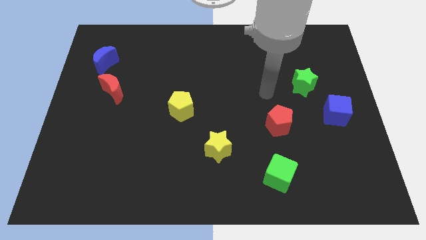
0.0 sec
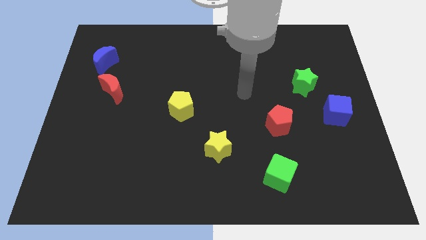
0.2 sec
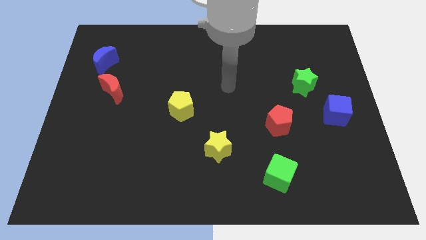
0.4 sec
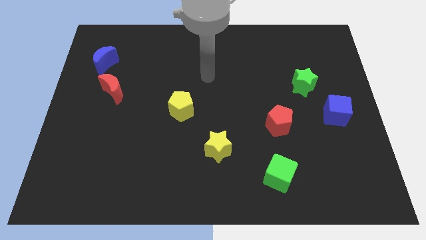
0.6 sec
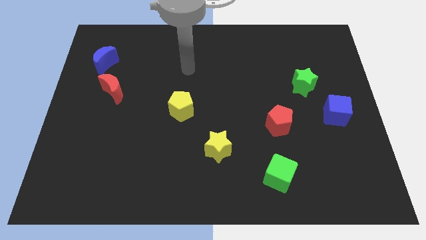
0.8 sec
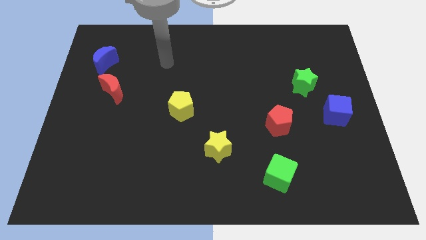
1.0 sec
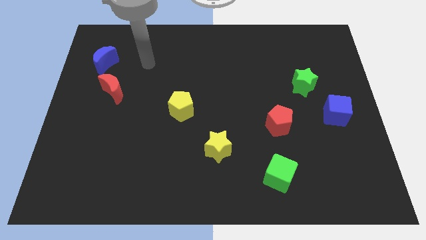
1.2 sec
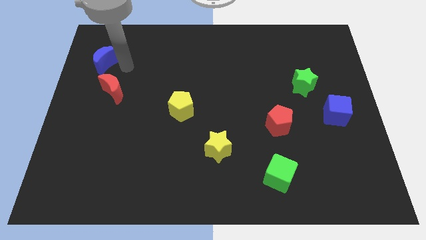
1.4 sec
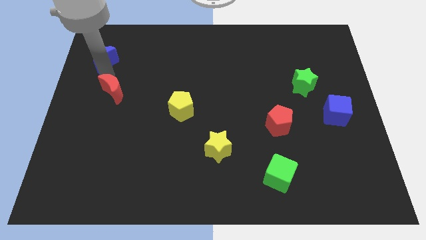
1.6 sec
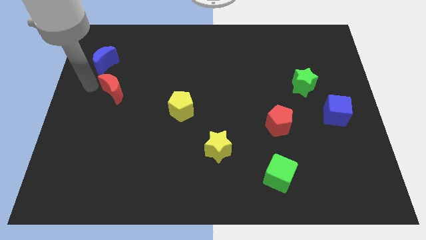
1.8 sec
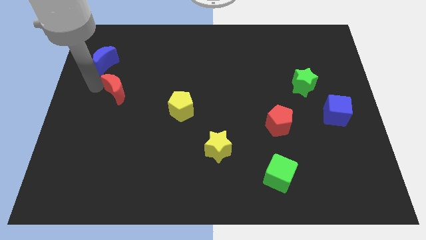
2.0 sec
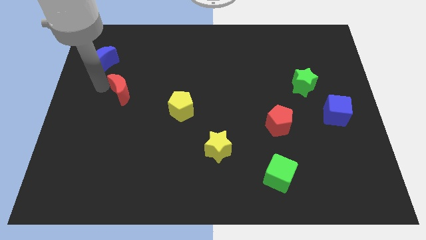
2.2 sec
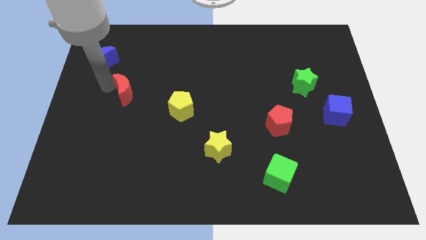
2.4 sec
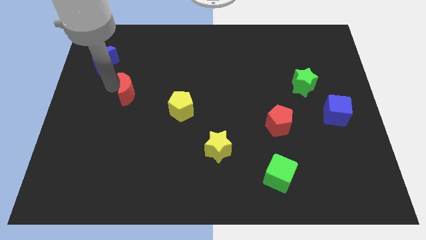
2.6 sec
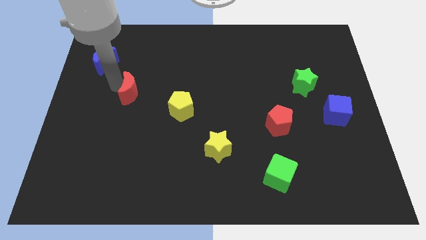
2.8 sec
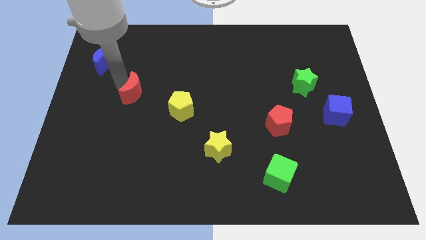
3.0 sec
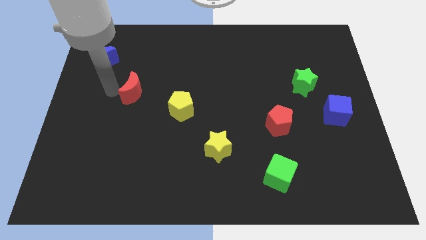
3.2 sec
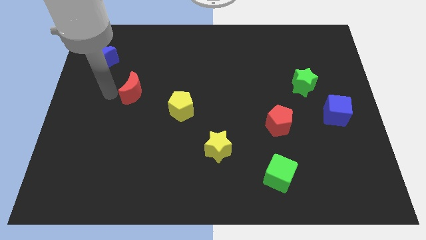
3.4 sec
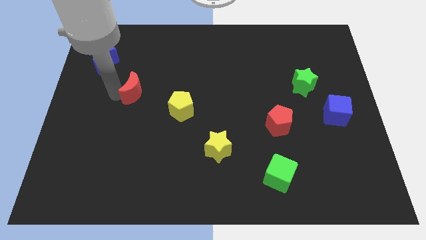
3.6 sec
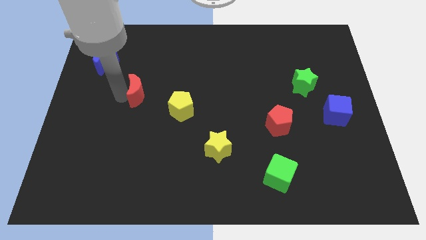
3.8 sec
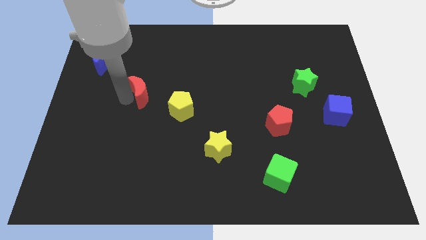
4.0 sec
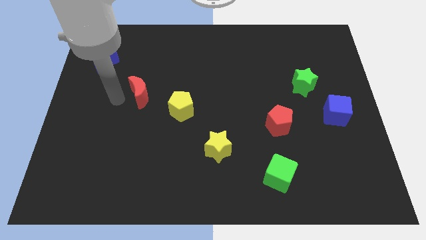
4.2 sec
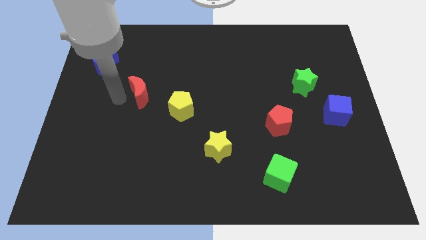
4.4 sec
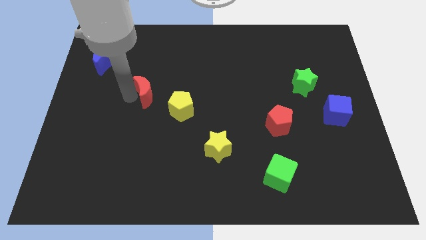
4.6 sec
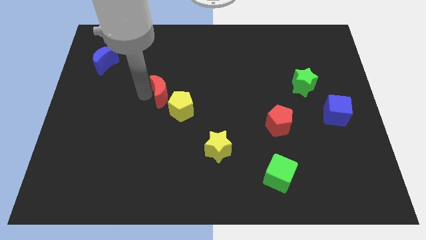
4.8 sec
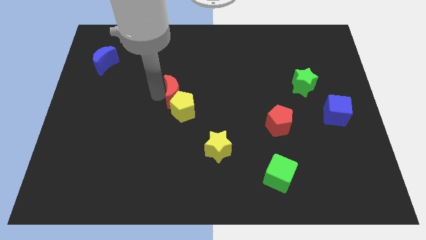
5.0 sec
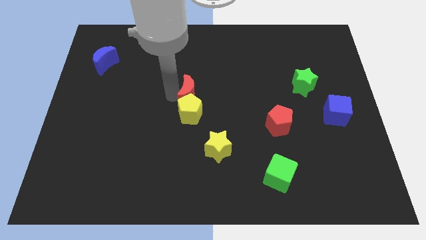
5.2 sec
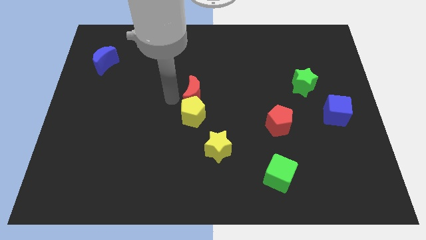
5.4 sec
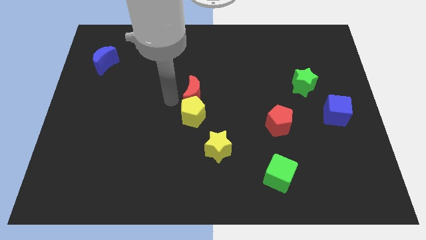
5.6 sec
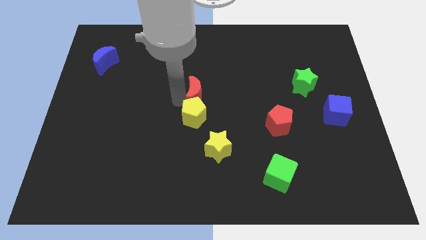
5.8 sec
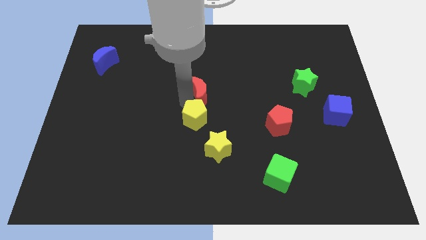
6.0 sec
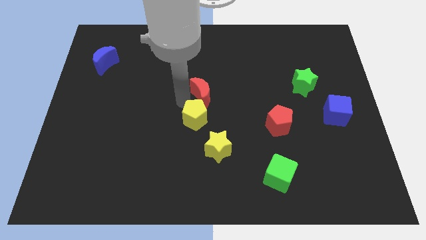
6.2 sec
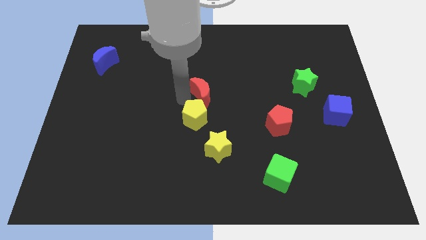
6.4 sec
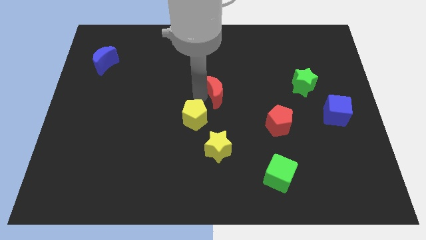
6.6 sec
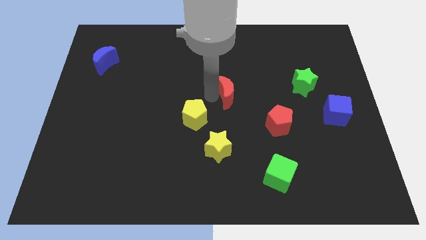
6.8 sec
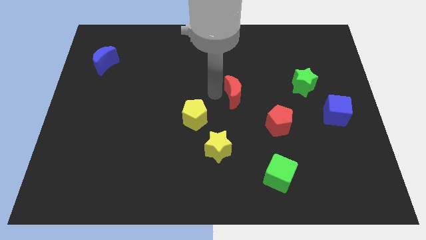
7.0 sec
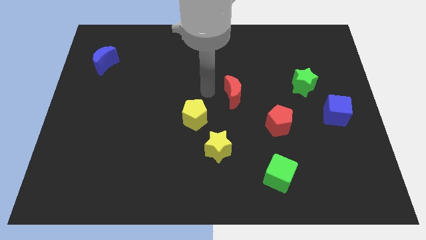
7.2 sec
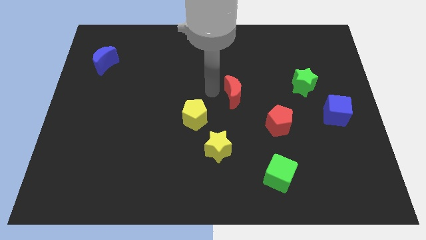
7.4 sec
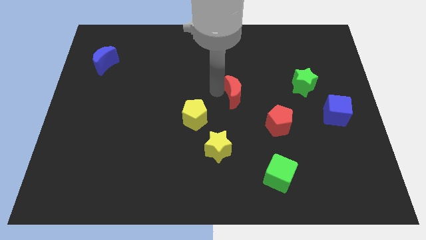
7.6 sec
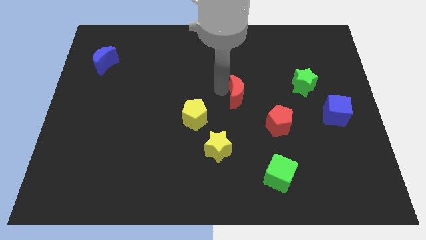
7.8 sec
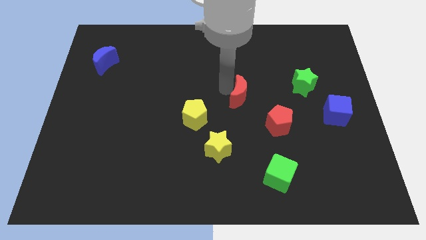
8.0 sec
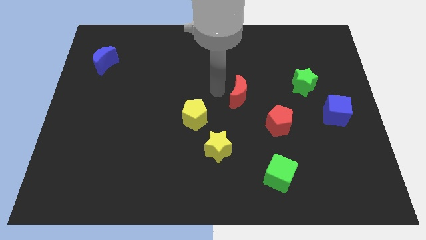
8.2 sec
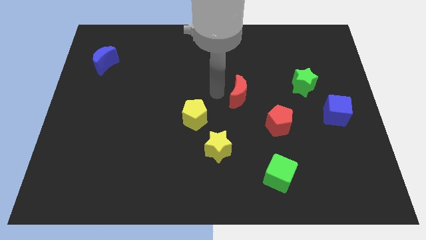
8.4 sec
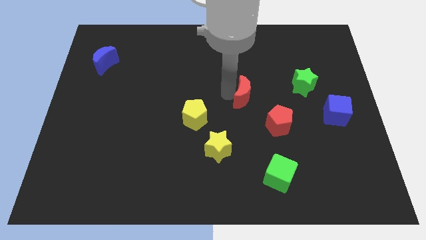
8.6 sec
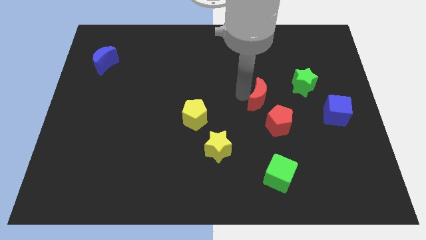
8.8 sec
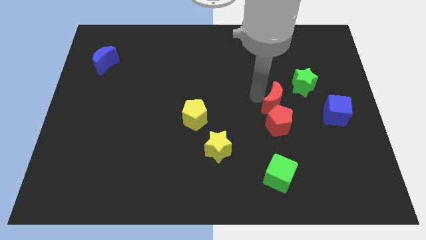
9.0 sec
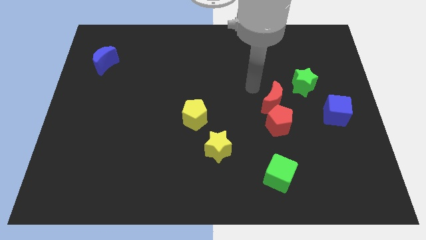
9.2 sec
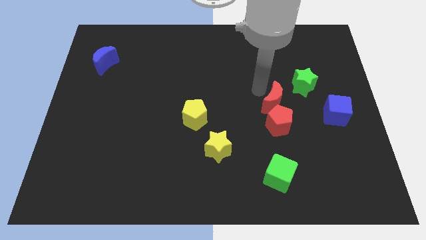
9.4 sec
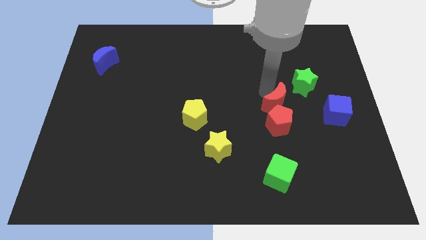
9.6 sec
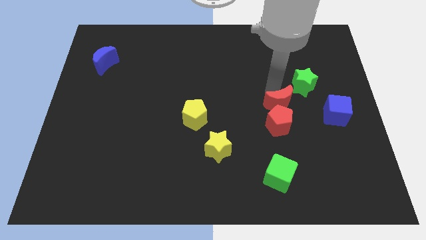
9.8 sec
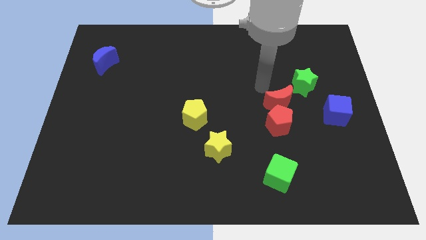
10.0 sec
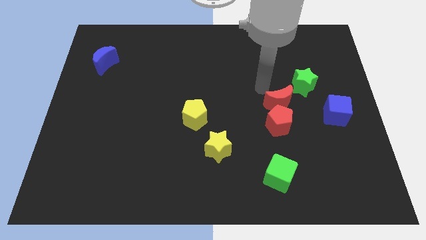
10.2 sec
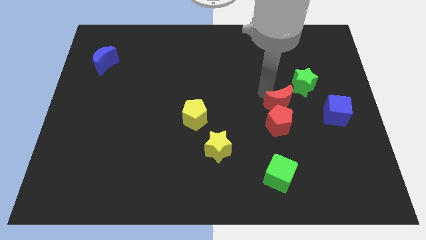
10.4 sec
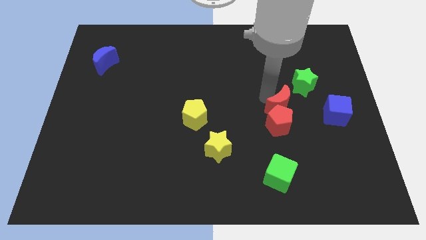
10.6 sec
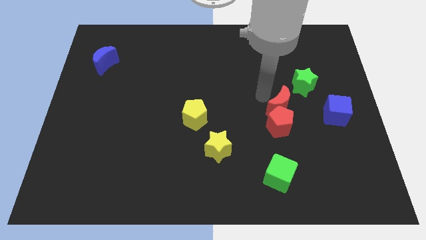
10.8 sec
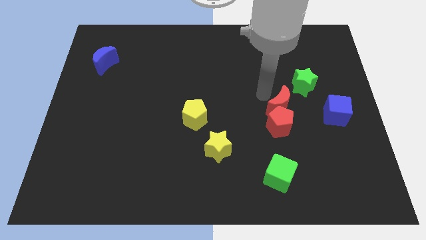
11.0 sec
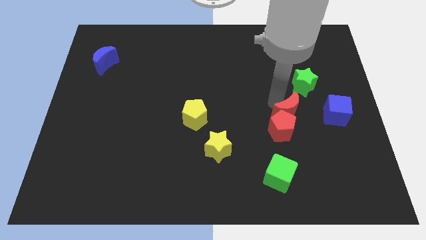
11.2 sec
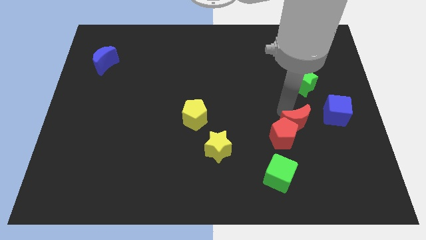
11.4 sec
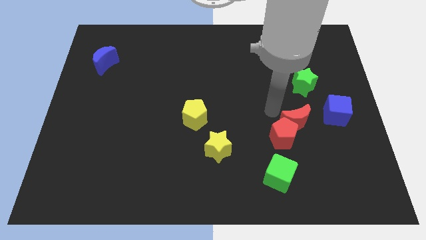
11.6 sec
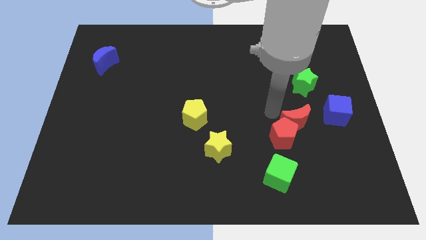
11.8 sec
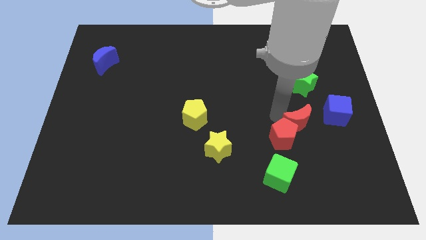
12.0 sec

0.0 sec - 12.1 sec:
push the red moon to the bottom left side of the blue cube

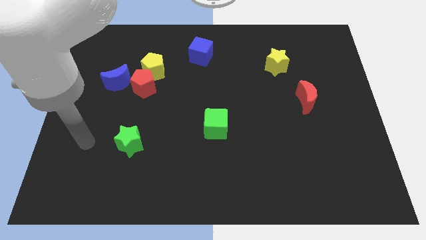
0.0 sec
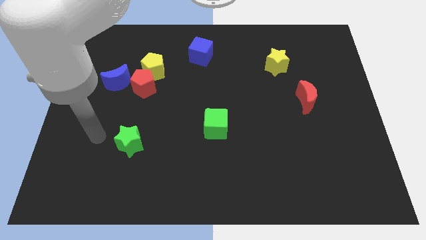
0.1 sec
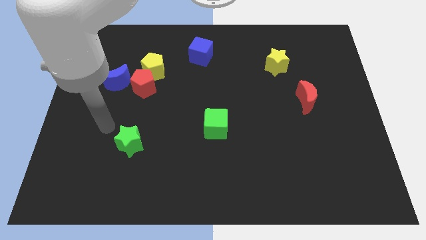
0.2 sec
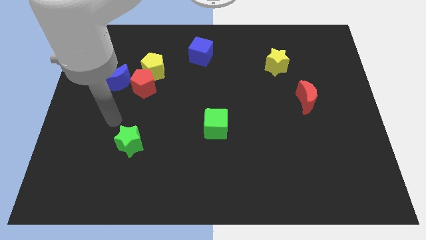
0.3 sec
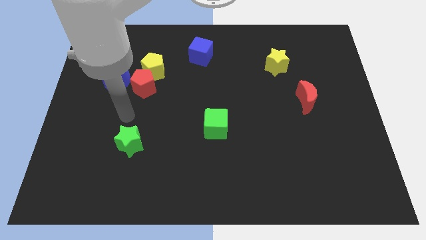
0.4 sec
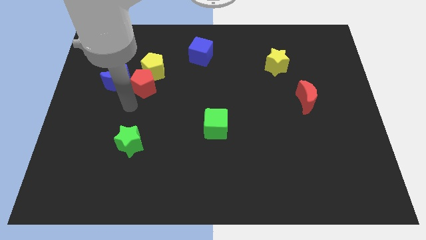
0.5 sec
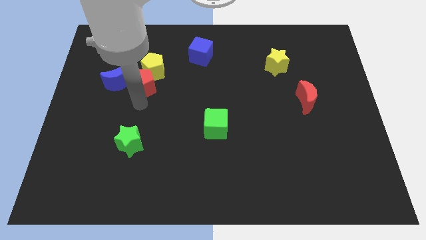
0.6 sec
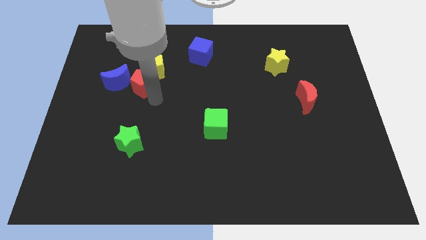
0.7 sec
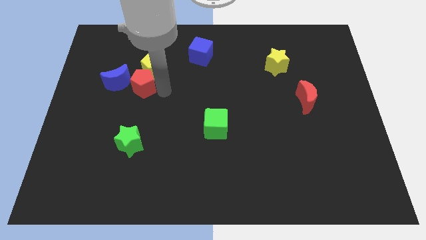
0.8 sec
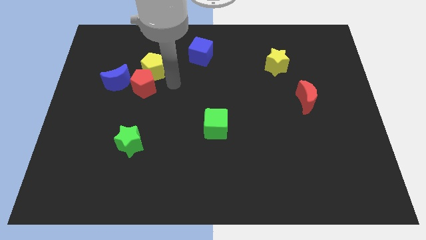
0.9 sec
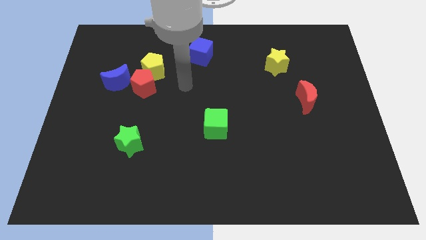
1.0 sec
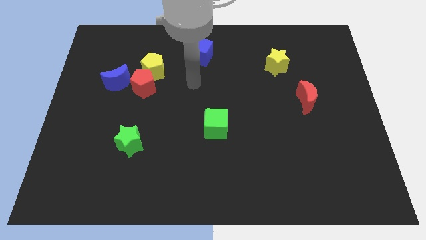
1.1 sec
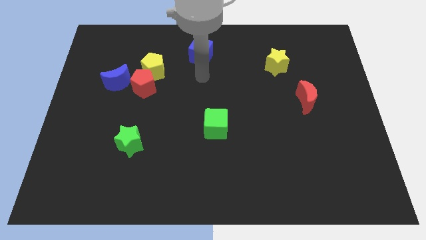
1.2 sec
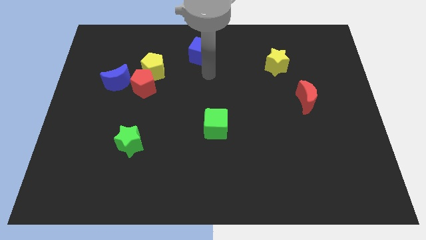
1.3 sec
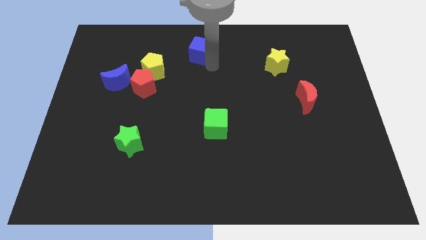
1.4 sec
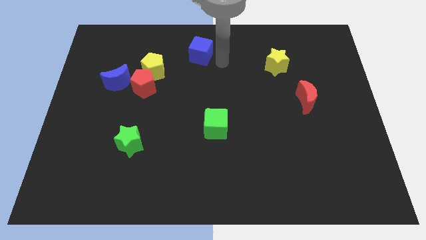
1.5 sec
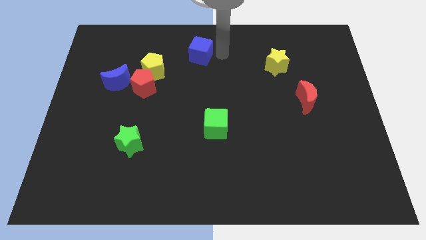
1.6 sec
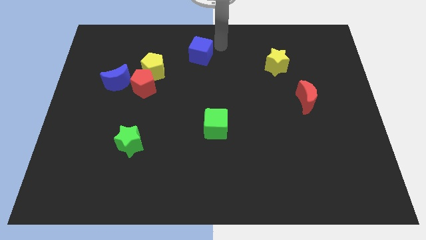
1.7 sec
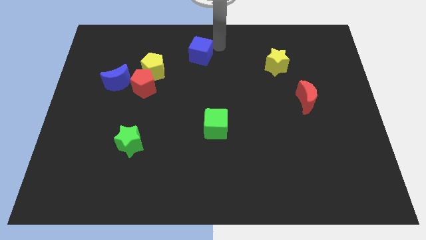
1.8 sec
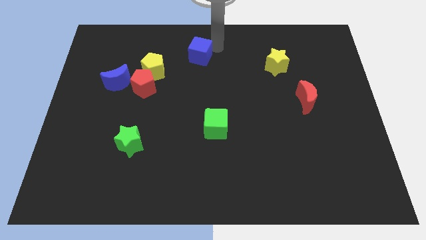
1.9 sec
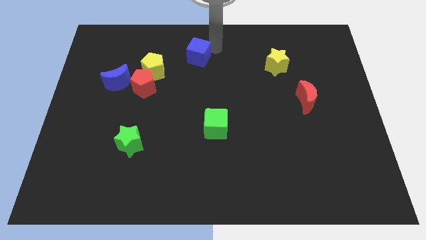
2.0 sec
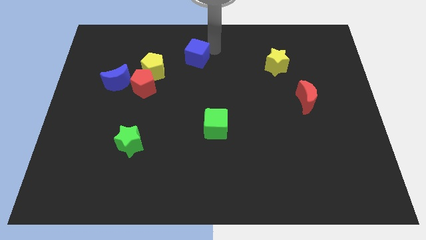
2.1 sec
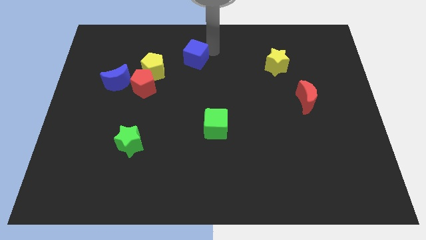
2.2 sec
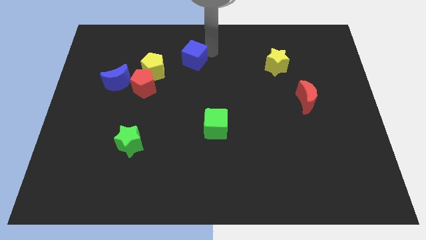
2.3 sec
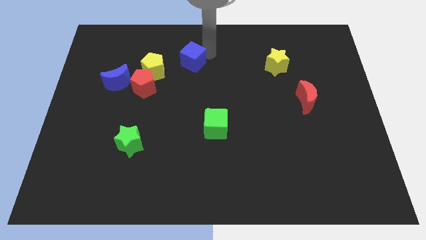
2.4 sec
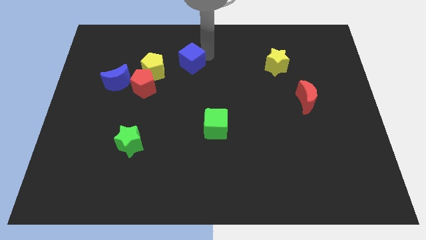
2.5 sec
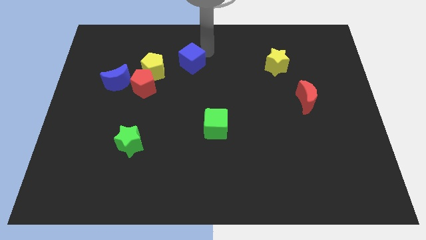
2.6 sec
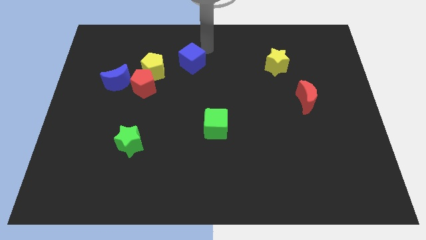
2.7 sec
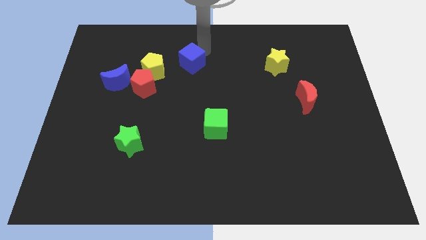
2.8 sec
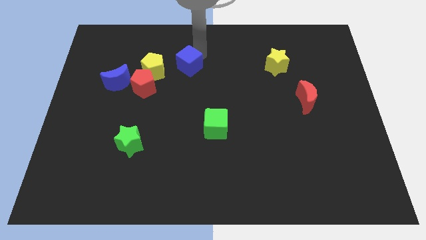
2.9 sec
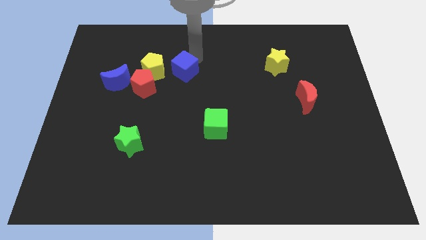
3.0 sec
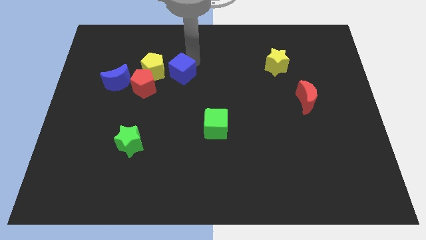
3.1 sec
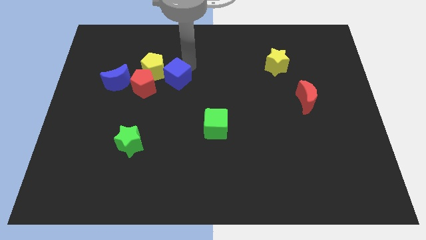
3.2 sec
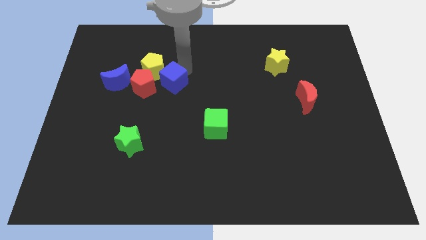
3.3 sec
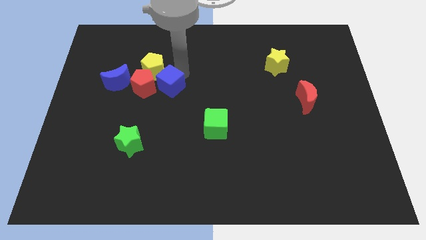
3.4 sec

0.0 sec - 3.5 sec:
put the blue cube to the bottom side of the yellow pentagon
